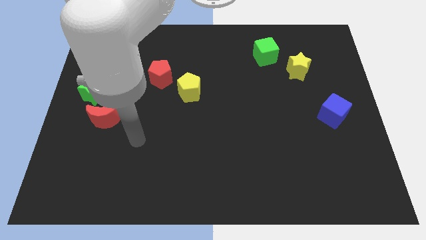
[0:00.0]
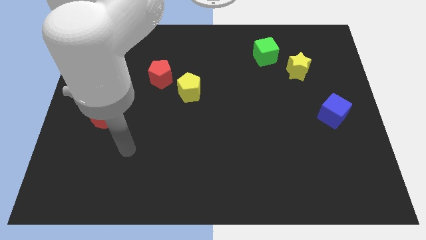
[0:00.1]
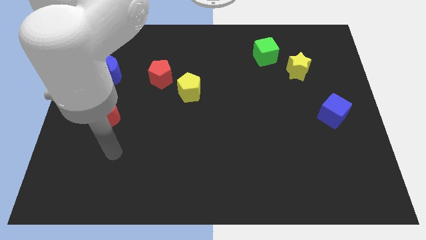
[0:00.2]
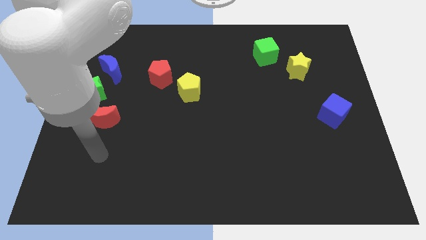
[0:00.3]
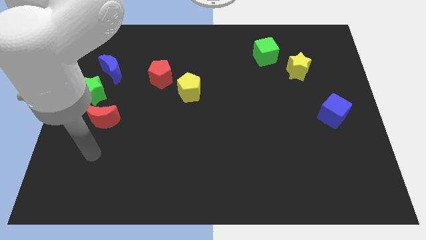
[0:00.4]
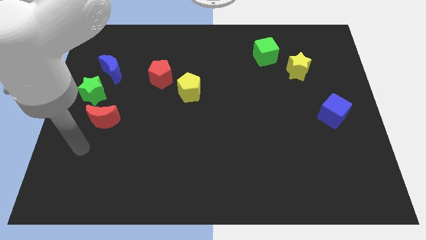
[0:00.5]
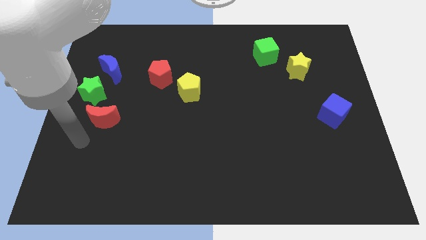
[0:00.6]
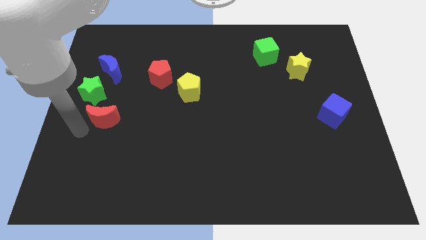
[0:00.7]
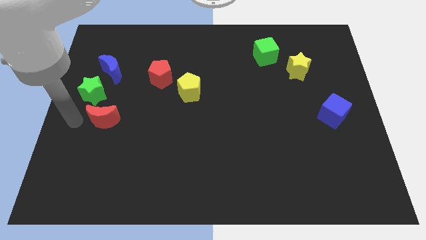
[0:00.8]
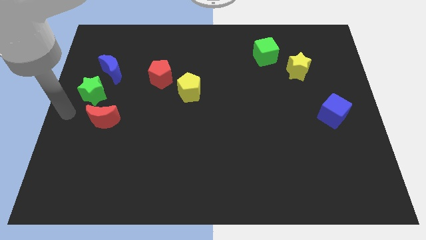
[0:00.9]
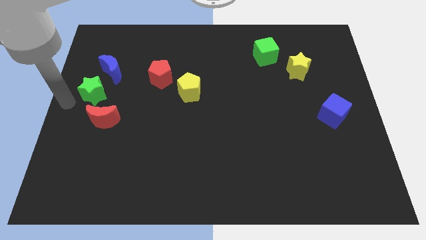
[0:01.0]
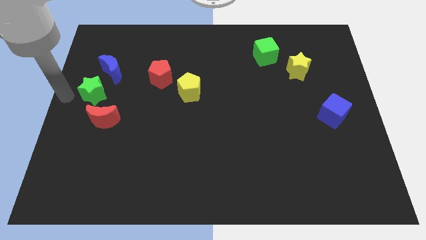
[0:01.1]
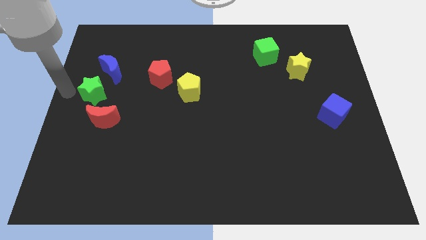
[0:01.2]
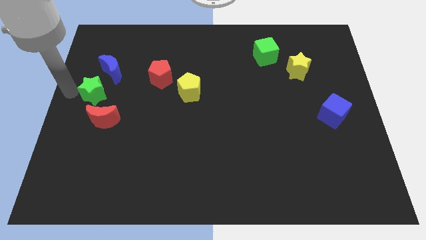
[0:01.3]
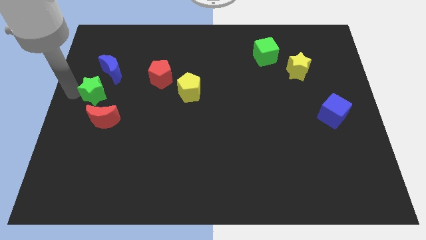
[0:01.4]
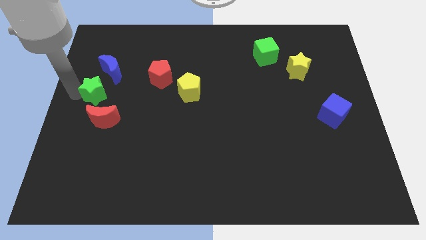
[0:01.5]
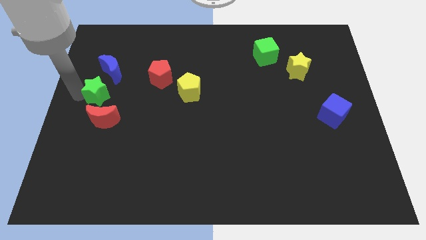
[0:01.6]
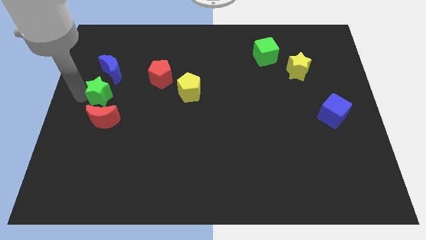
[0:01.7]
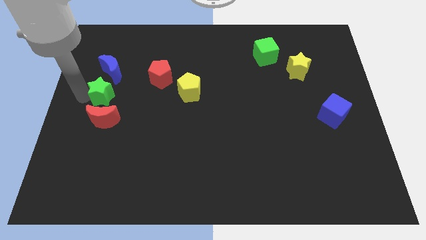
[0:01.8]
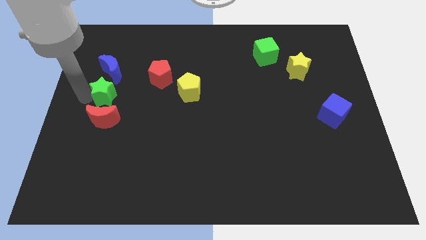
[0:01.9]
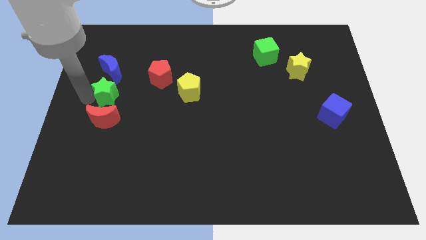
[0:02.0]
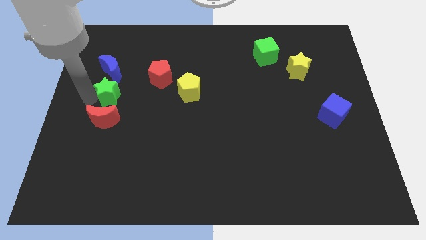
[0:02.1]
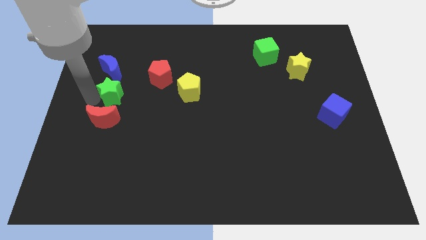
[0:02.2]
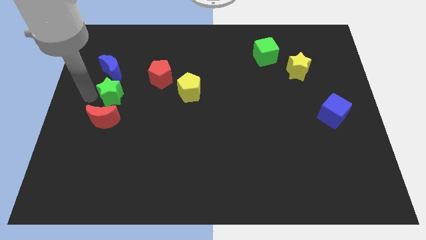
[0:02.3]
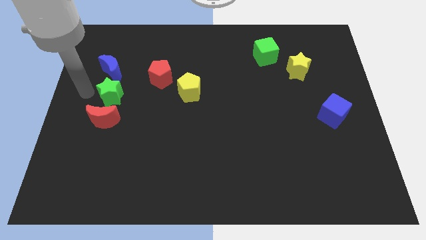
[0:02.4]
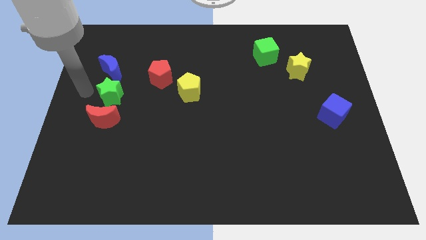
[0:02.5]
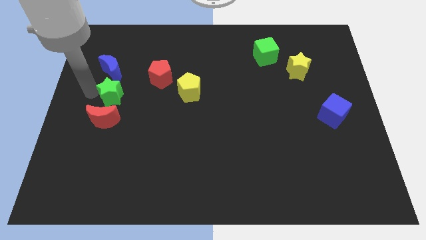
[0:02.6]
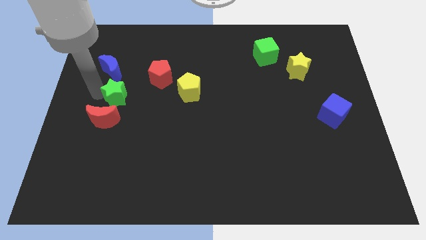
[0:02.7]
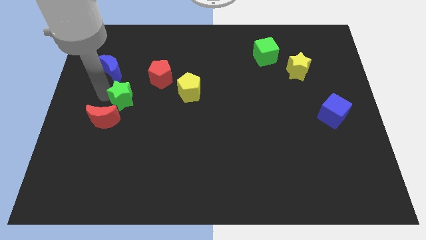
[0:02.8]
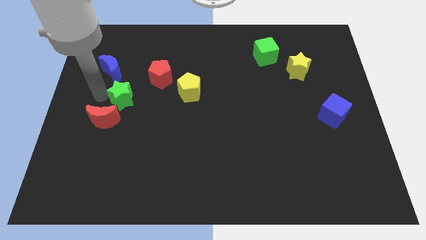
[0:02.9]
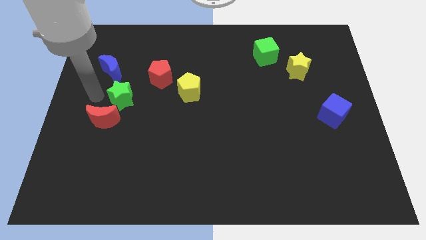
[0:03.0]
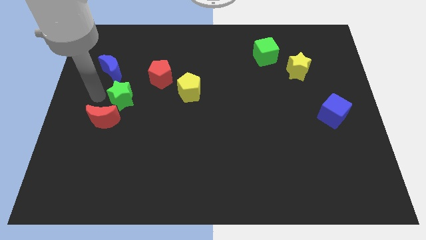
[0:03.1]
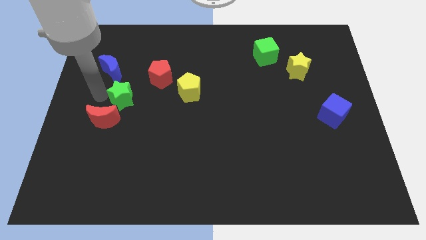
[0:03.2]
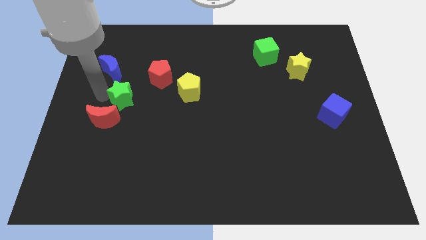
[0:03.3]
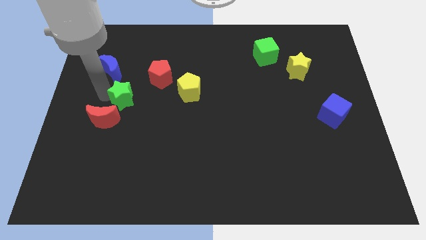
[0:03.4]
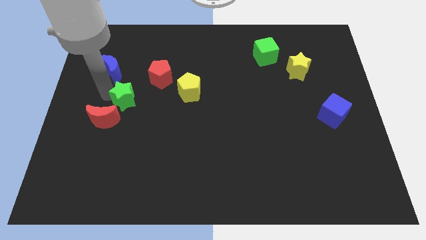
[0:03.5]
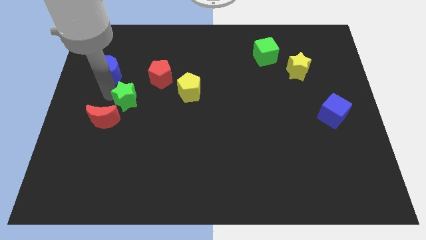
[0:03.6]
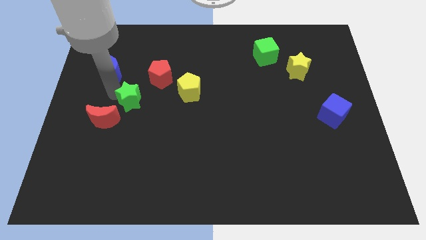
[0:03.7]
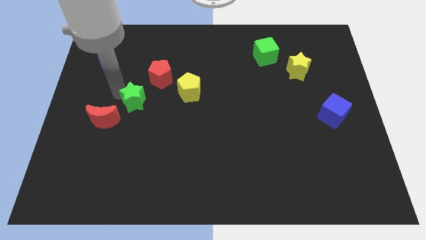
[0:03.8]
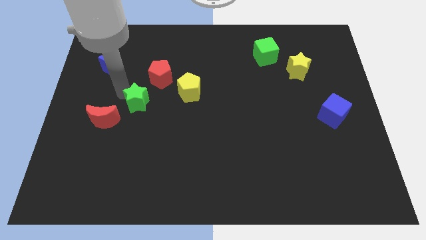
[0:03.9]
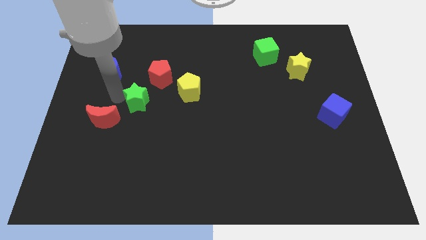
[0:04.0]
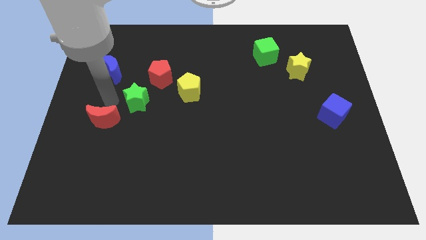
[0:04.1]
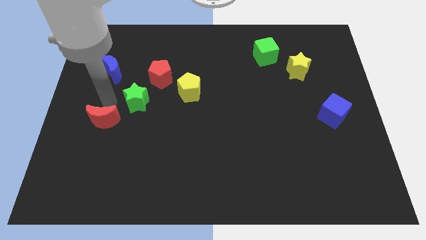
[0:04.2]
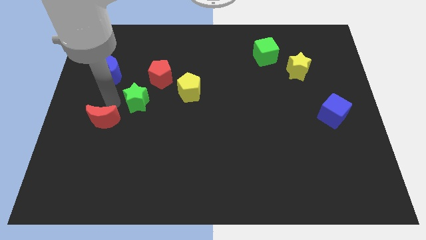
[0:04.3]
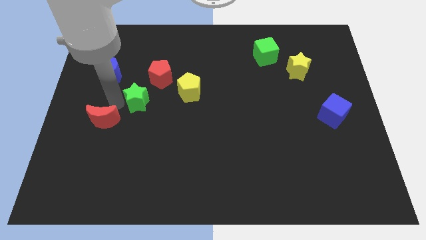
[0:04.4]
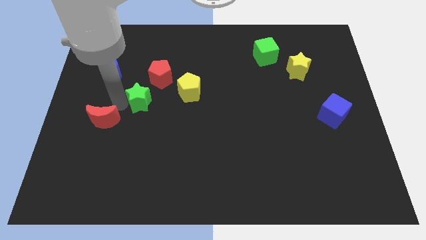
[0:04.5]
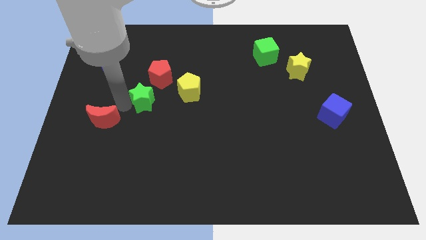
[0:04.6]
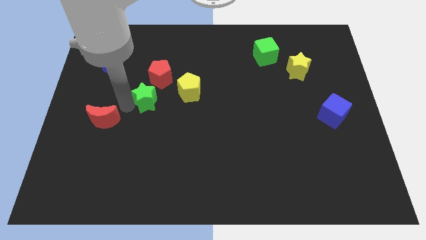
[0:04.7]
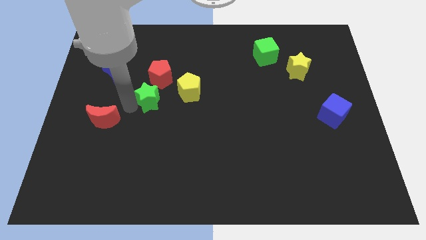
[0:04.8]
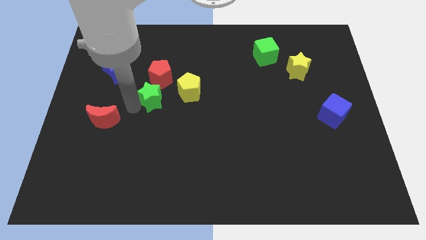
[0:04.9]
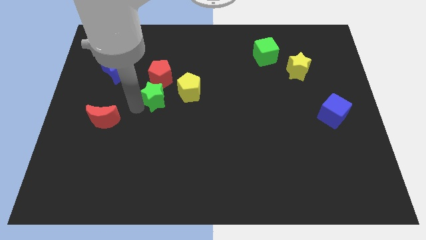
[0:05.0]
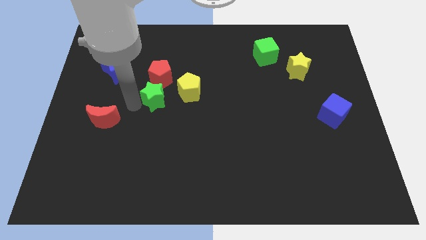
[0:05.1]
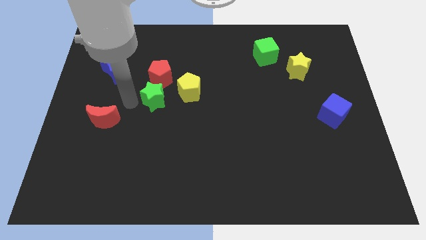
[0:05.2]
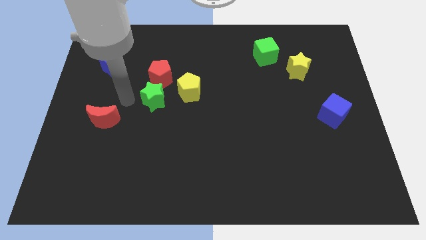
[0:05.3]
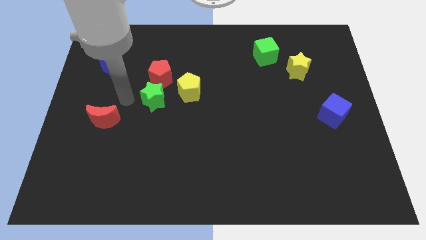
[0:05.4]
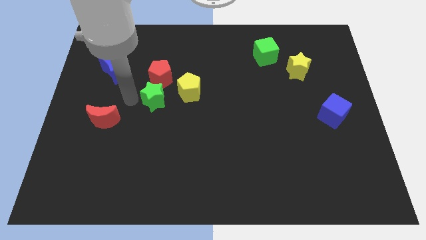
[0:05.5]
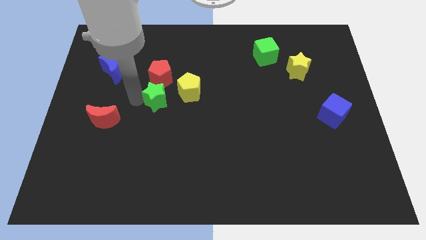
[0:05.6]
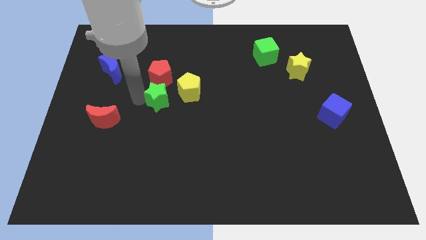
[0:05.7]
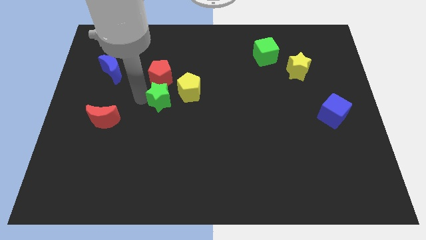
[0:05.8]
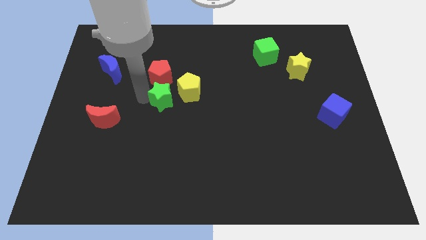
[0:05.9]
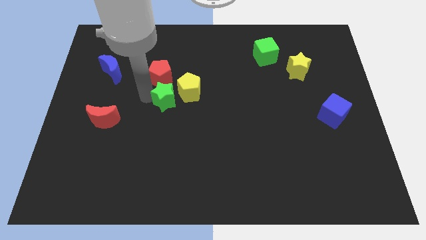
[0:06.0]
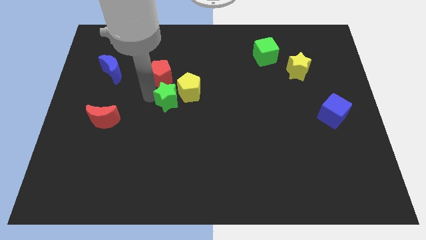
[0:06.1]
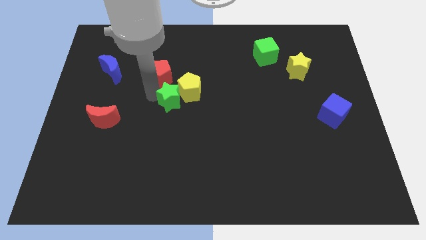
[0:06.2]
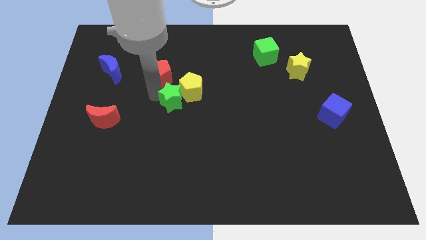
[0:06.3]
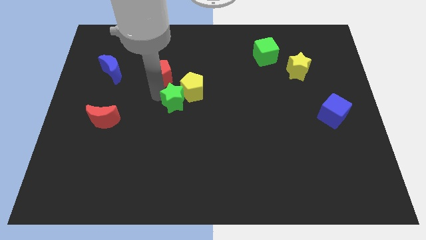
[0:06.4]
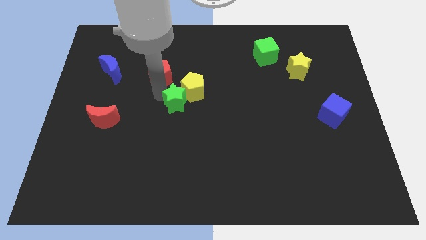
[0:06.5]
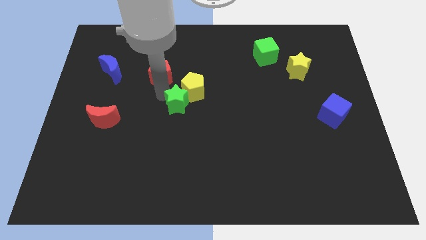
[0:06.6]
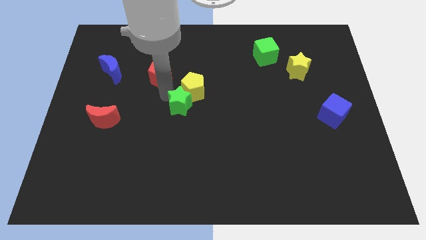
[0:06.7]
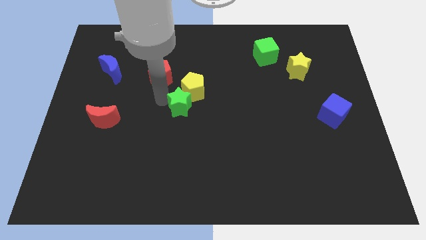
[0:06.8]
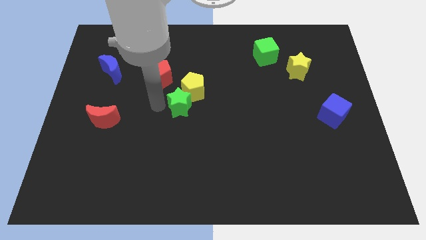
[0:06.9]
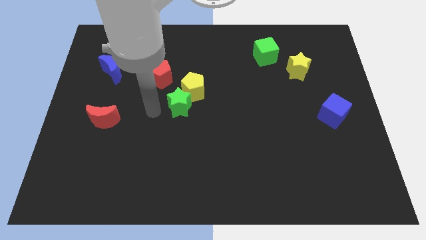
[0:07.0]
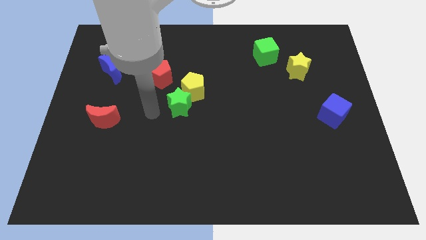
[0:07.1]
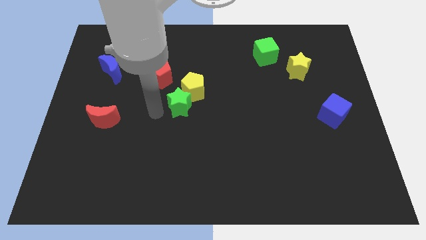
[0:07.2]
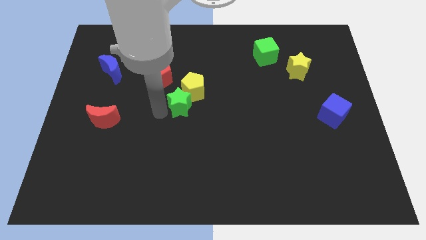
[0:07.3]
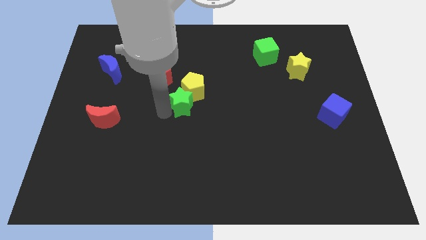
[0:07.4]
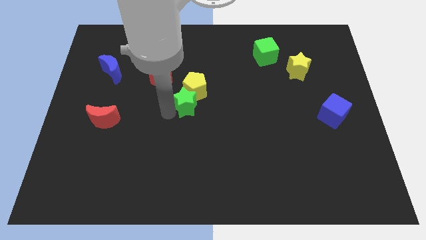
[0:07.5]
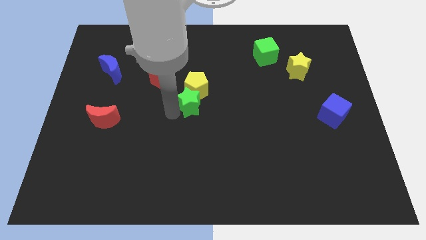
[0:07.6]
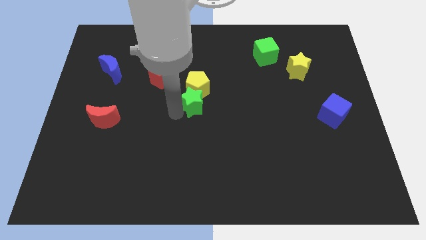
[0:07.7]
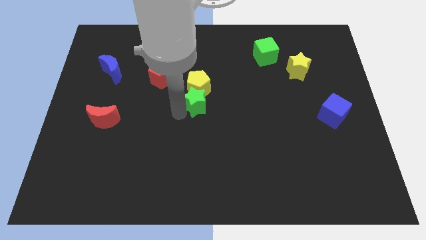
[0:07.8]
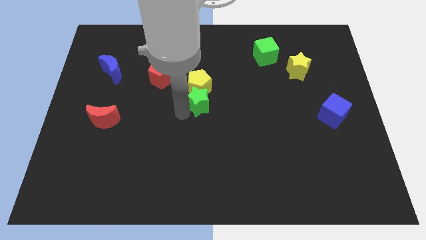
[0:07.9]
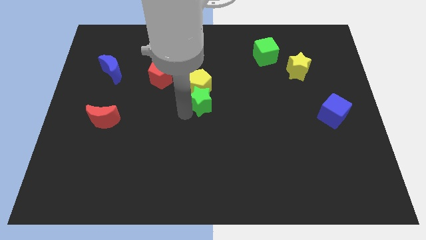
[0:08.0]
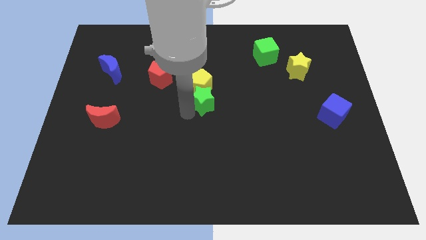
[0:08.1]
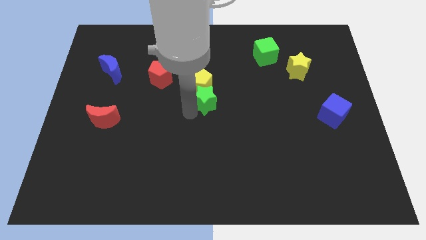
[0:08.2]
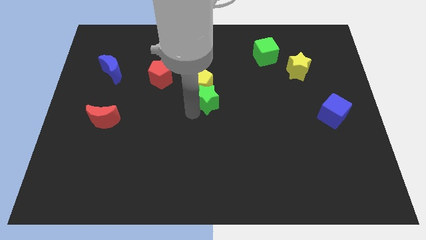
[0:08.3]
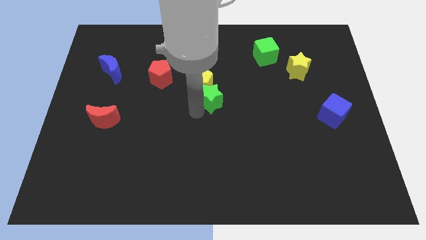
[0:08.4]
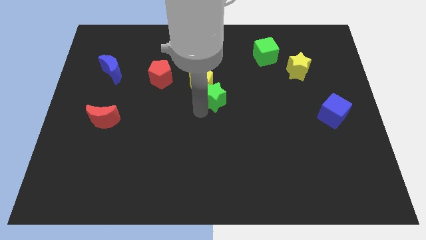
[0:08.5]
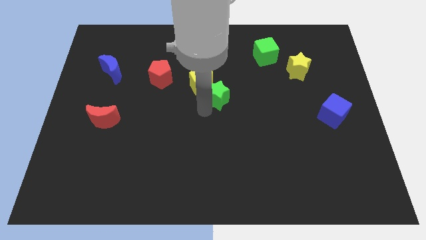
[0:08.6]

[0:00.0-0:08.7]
push the green star right of the yellow pentagon
